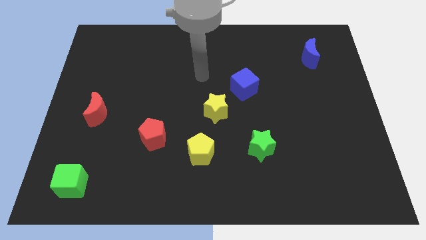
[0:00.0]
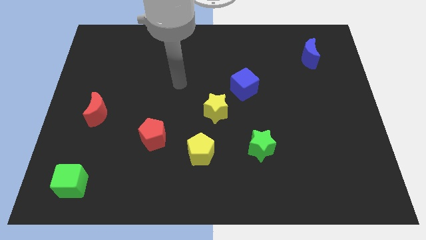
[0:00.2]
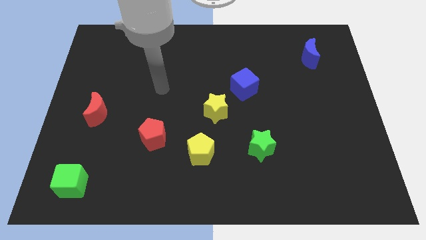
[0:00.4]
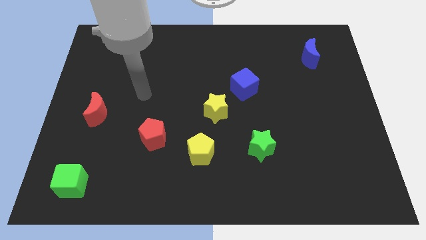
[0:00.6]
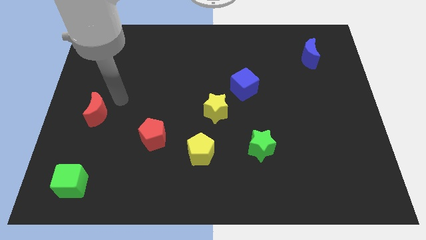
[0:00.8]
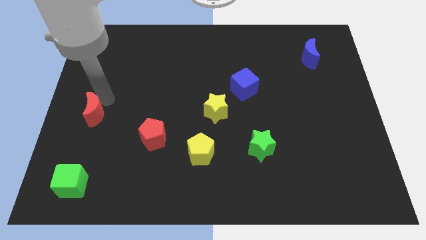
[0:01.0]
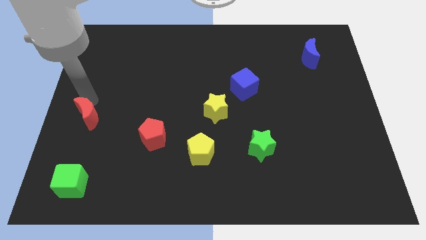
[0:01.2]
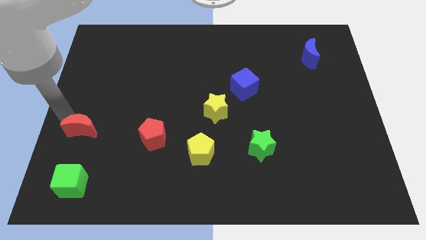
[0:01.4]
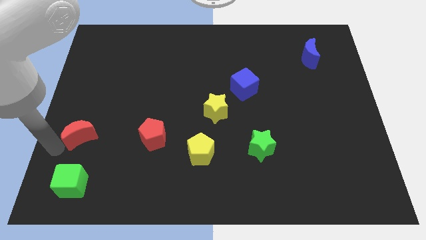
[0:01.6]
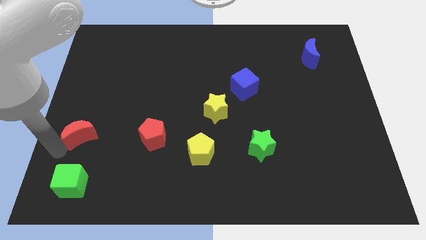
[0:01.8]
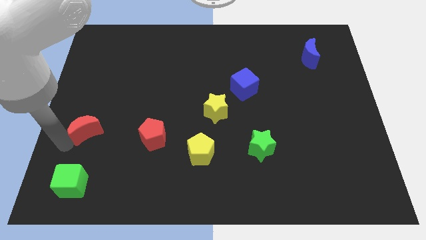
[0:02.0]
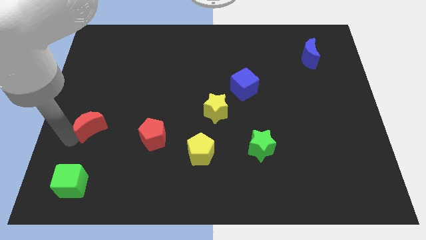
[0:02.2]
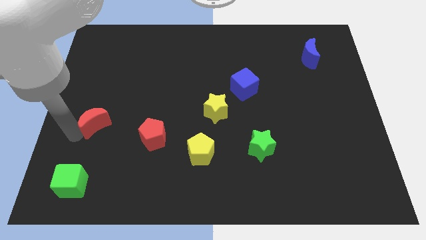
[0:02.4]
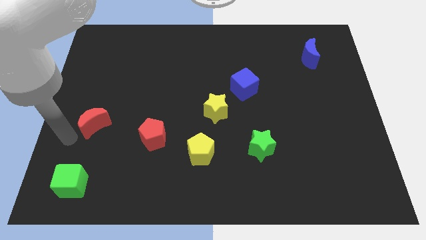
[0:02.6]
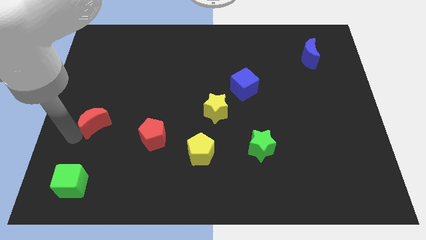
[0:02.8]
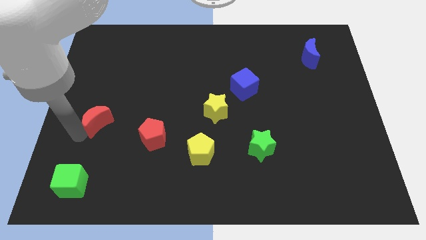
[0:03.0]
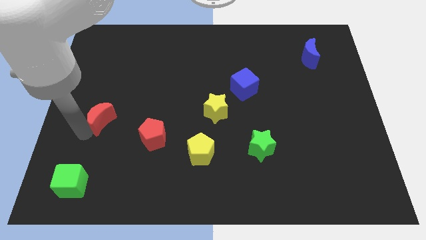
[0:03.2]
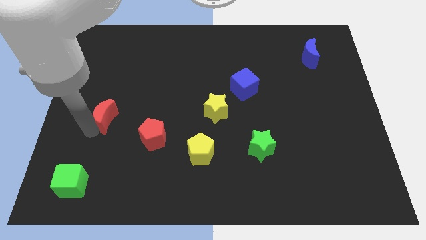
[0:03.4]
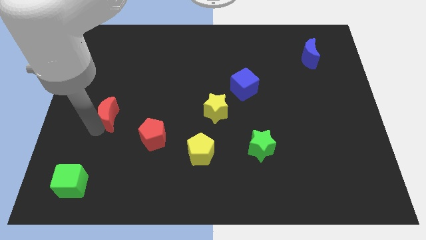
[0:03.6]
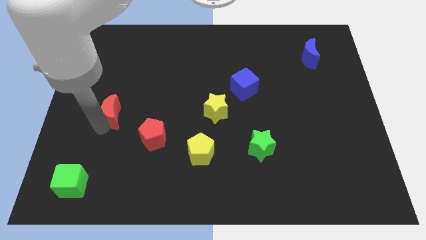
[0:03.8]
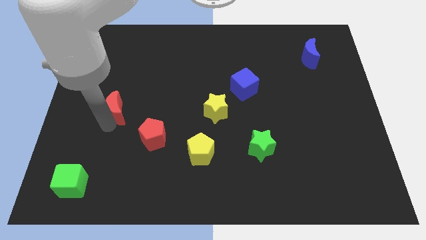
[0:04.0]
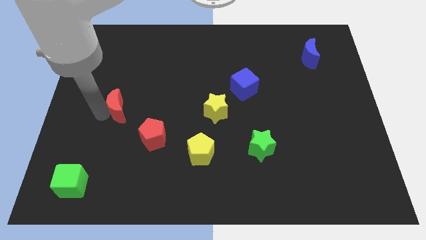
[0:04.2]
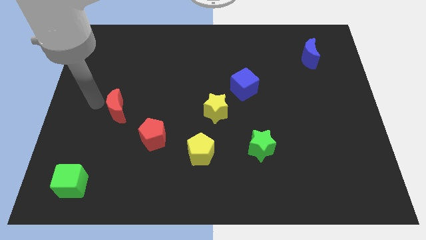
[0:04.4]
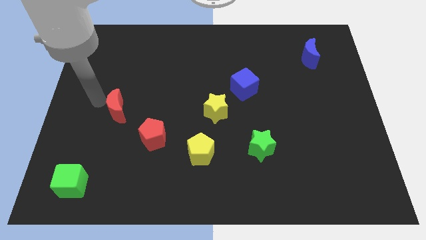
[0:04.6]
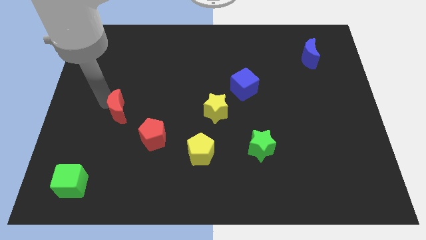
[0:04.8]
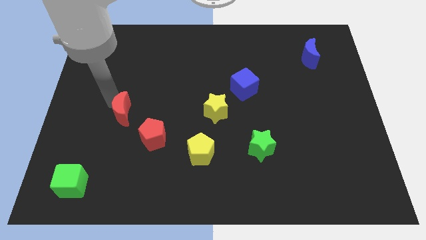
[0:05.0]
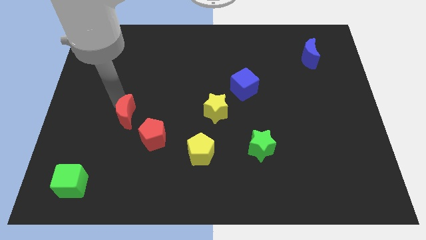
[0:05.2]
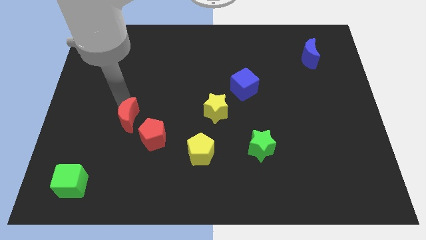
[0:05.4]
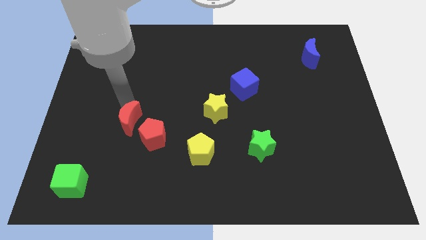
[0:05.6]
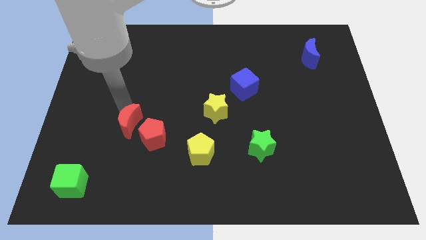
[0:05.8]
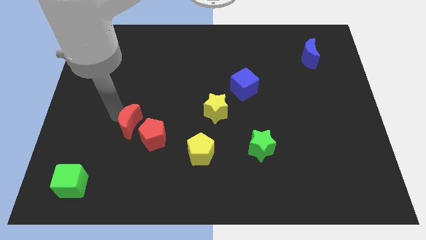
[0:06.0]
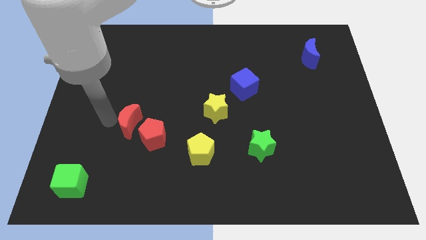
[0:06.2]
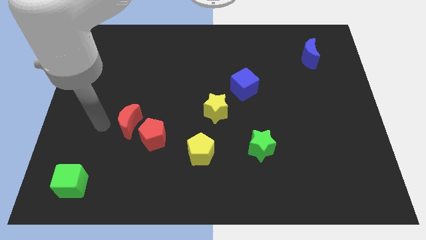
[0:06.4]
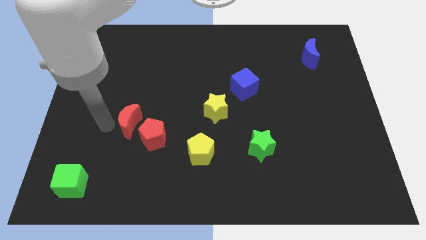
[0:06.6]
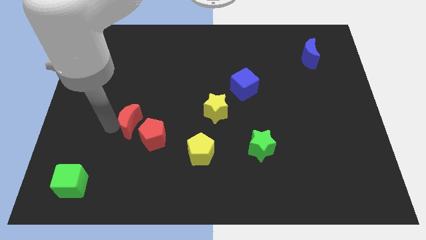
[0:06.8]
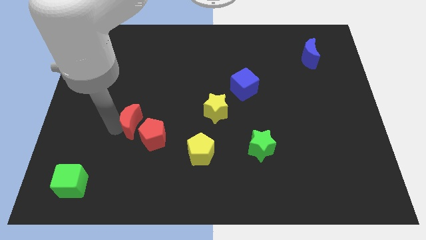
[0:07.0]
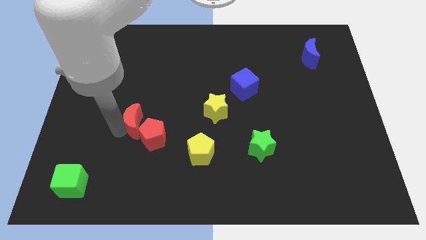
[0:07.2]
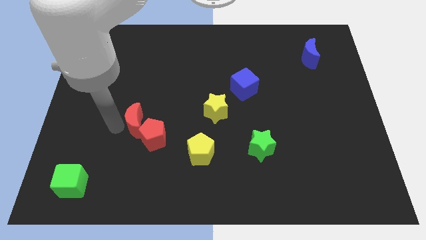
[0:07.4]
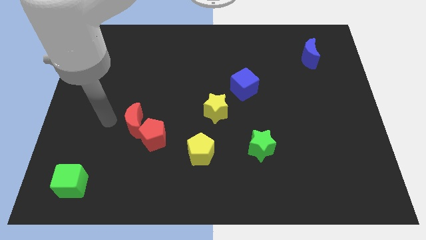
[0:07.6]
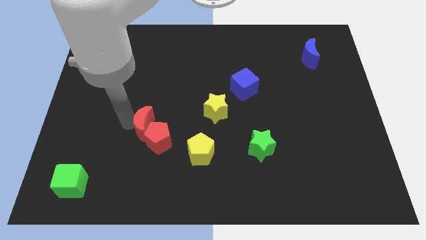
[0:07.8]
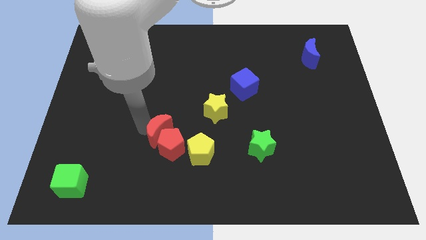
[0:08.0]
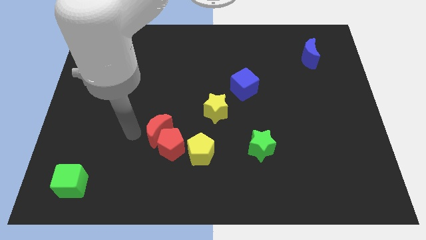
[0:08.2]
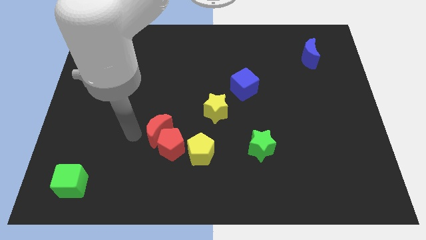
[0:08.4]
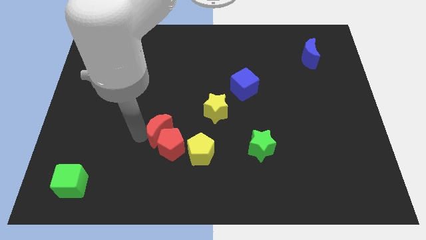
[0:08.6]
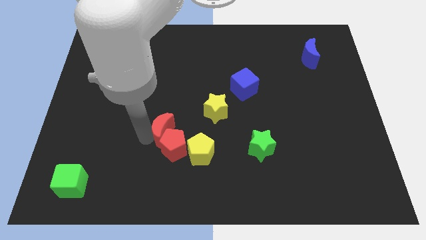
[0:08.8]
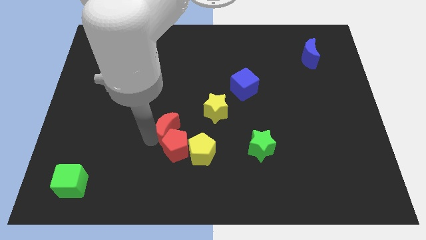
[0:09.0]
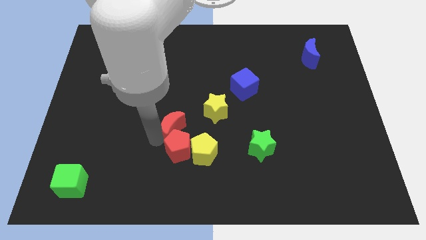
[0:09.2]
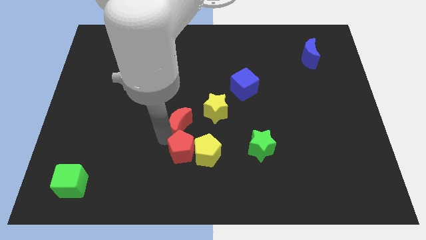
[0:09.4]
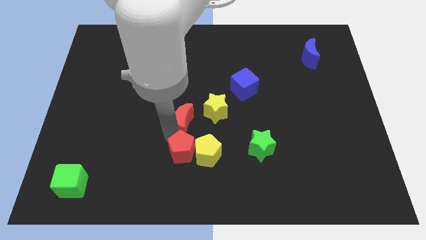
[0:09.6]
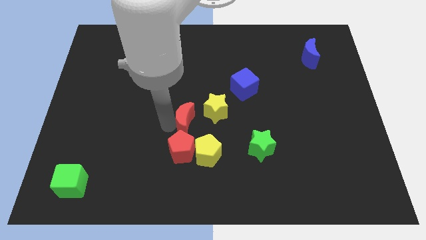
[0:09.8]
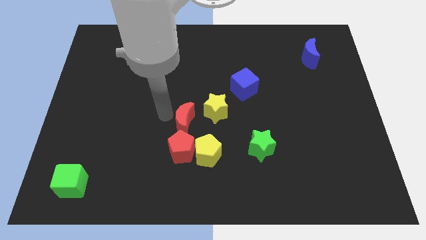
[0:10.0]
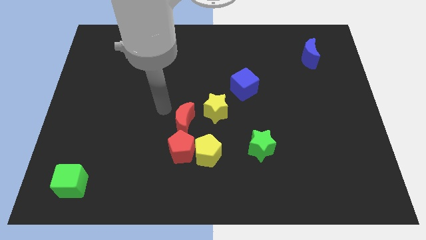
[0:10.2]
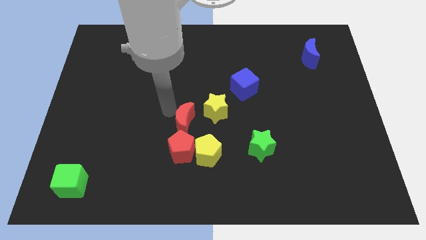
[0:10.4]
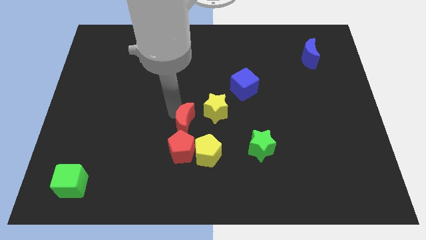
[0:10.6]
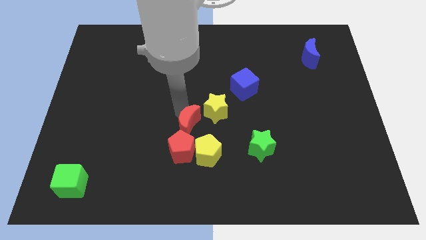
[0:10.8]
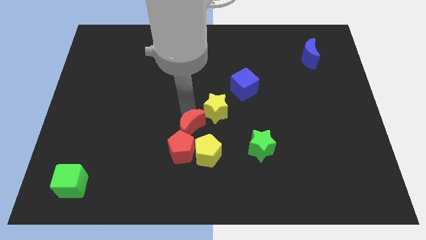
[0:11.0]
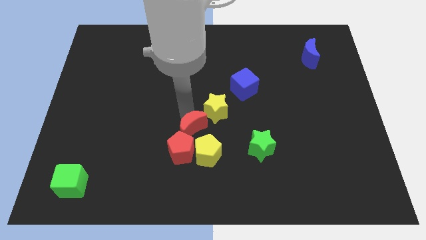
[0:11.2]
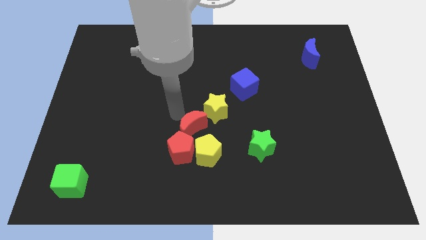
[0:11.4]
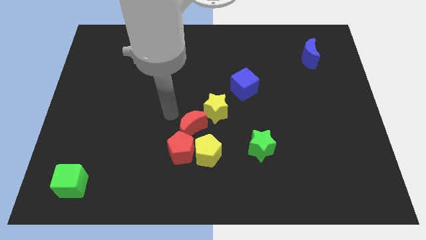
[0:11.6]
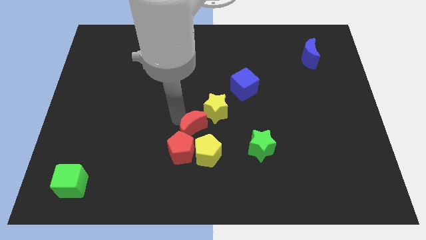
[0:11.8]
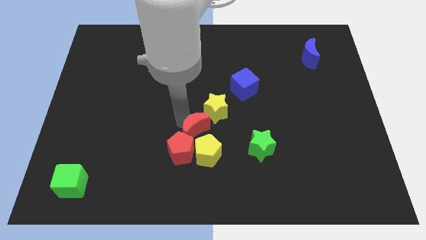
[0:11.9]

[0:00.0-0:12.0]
put the red moon to the bottom of the yellow star
